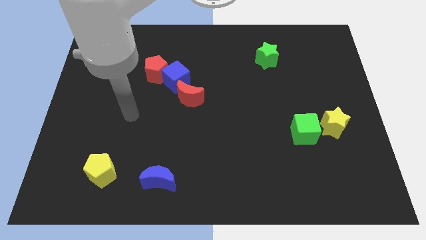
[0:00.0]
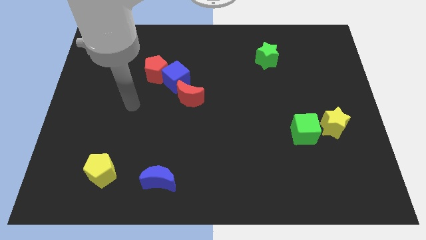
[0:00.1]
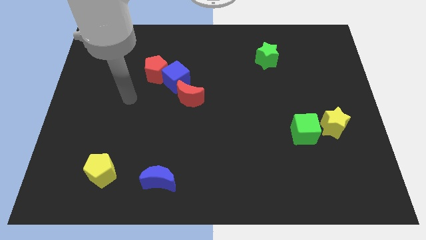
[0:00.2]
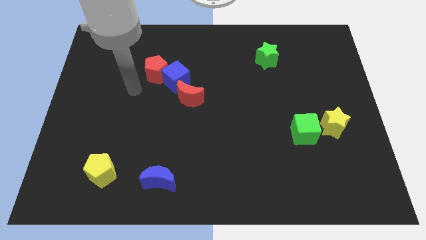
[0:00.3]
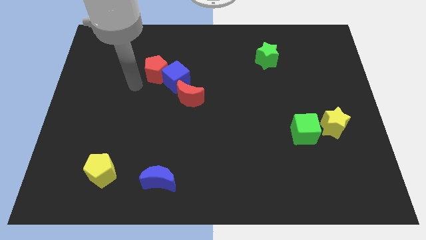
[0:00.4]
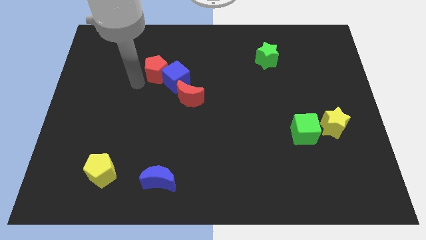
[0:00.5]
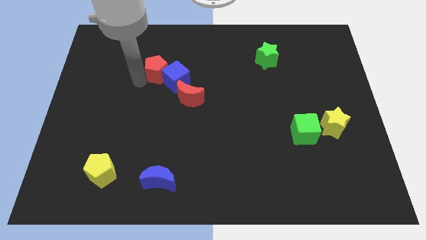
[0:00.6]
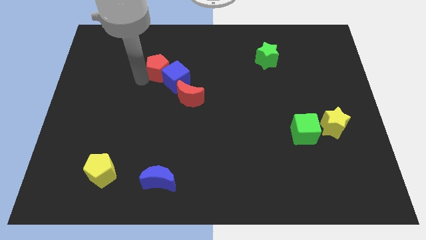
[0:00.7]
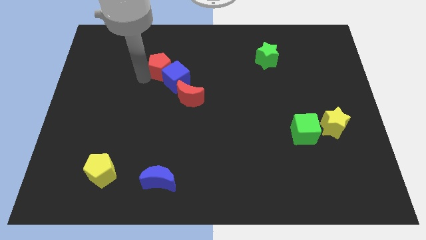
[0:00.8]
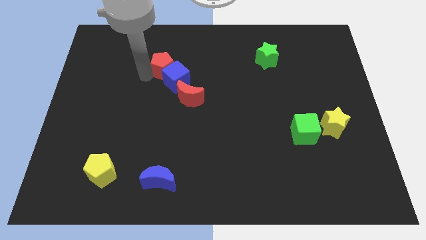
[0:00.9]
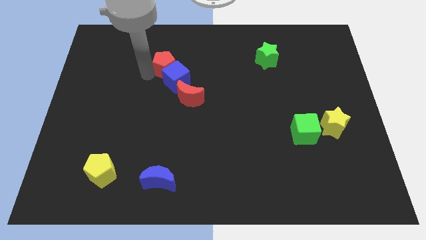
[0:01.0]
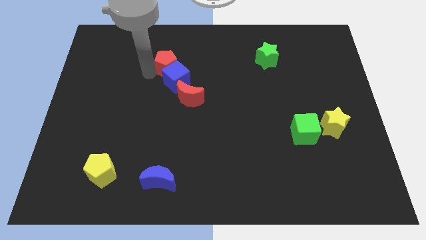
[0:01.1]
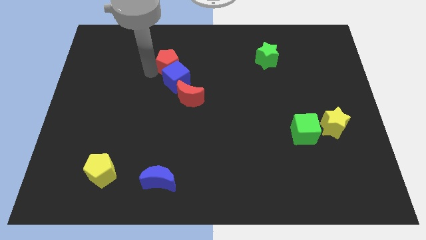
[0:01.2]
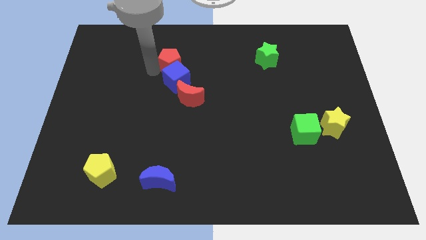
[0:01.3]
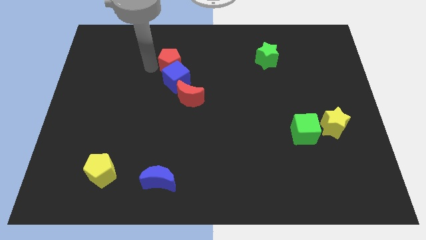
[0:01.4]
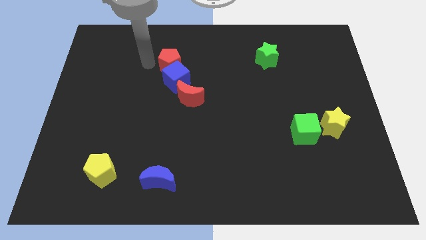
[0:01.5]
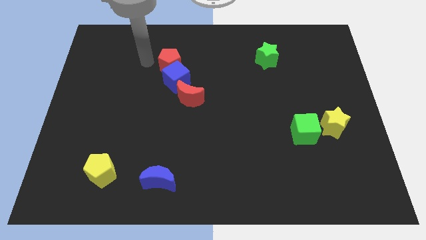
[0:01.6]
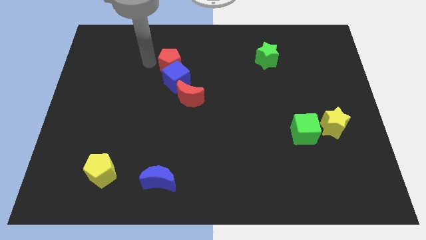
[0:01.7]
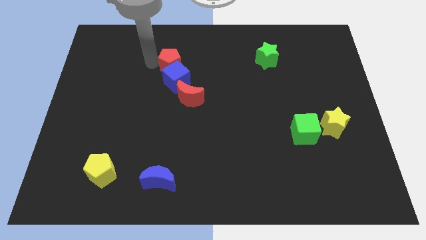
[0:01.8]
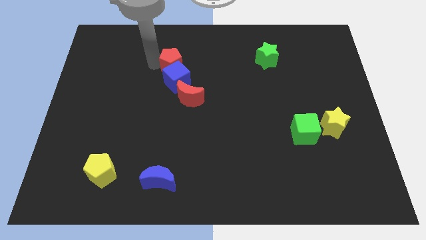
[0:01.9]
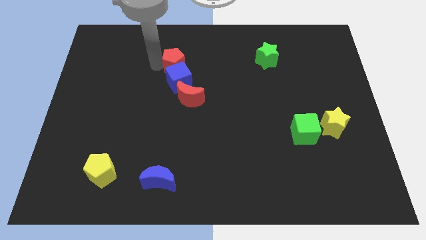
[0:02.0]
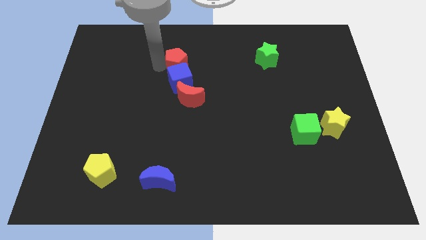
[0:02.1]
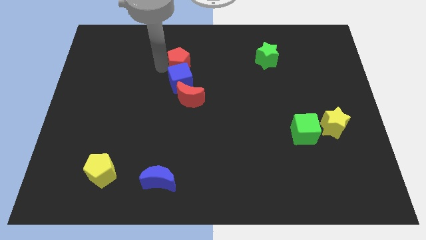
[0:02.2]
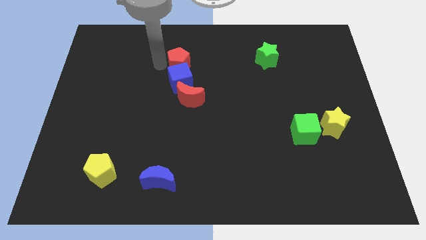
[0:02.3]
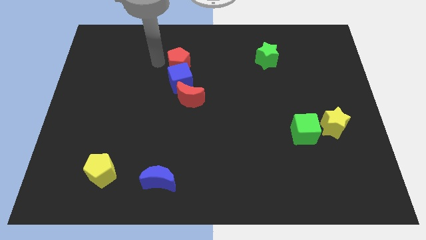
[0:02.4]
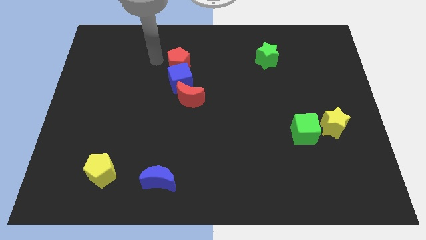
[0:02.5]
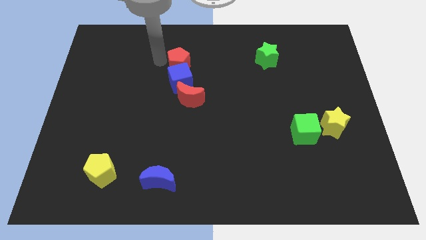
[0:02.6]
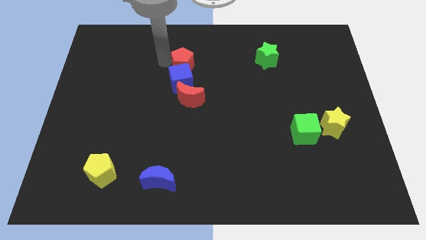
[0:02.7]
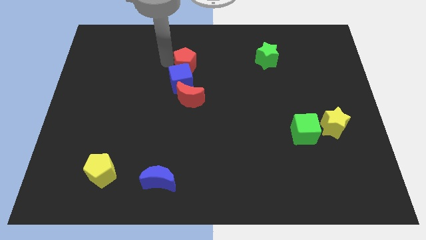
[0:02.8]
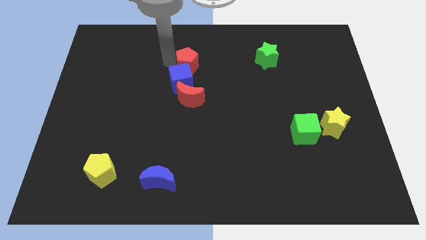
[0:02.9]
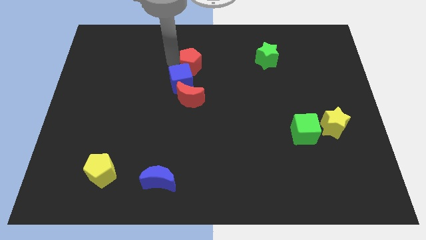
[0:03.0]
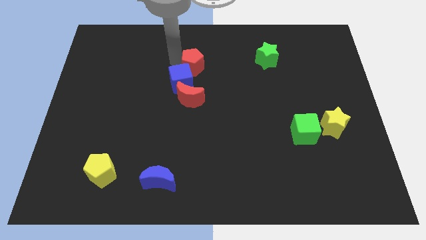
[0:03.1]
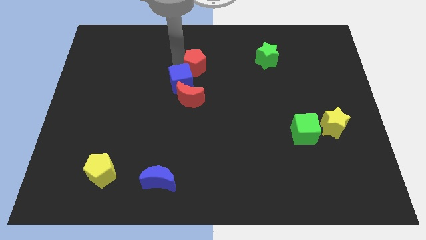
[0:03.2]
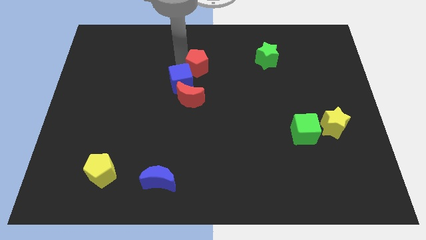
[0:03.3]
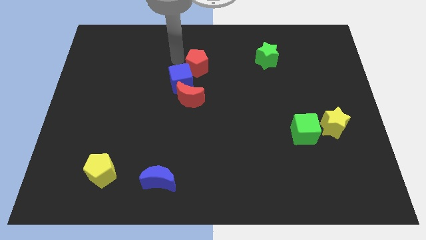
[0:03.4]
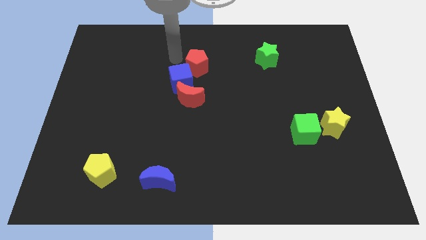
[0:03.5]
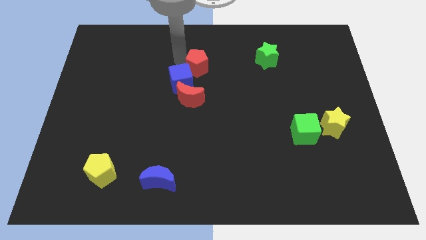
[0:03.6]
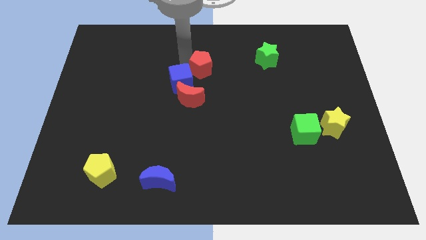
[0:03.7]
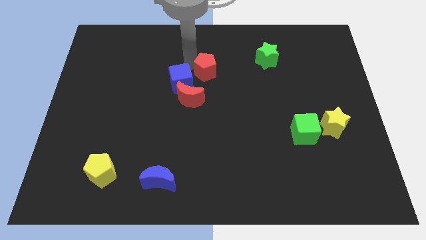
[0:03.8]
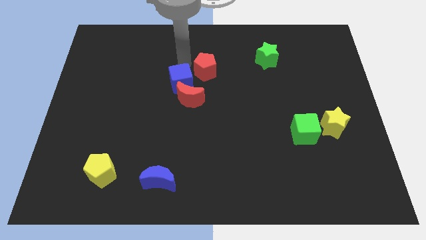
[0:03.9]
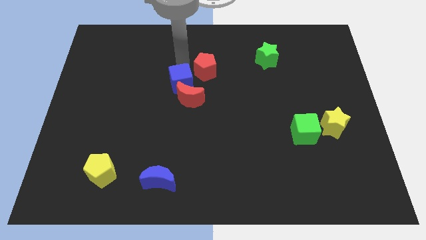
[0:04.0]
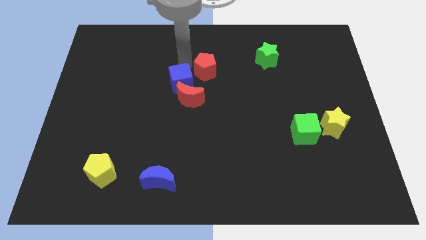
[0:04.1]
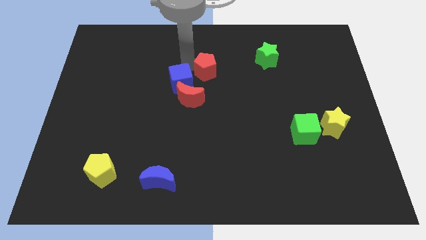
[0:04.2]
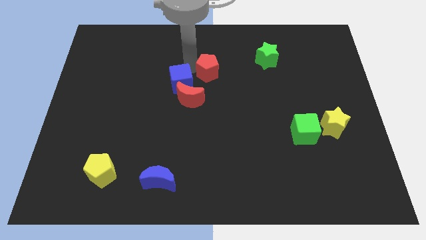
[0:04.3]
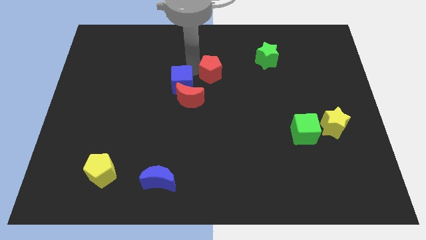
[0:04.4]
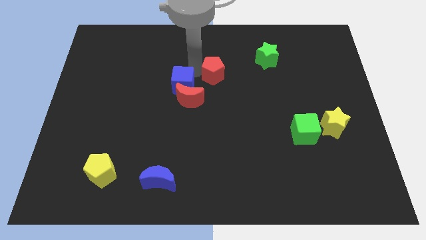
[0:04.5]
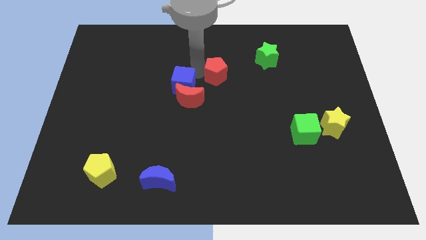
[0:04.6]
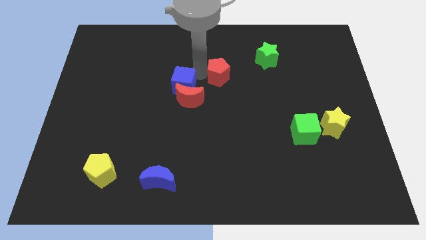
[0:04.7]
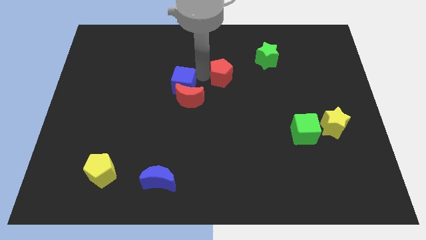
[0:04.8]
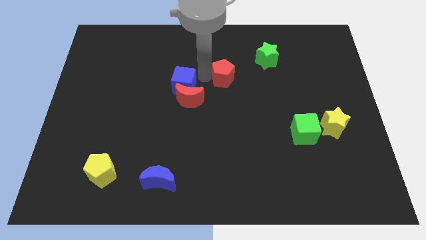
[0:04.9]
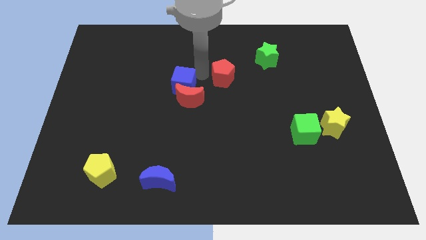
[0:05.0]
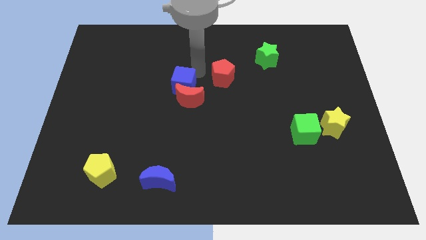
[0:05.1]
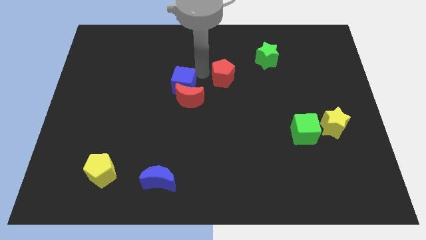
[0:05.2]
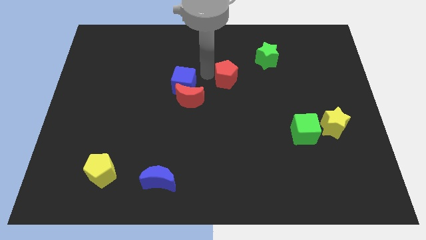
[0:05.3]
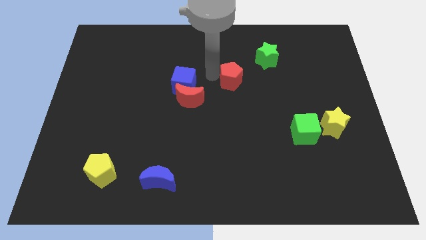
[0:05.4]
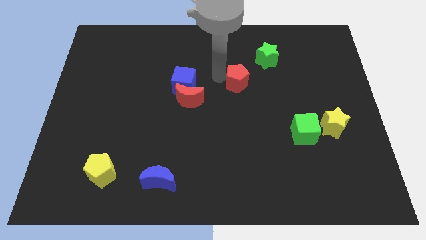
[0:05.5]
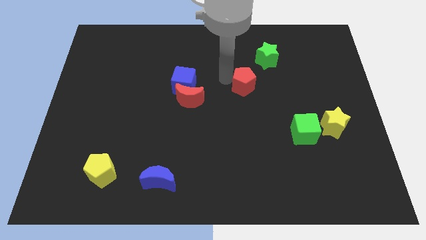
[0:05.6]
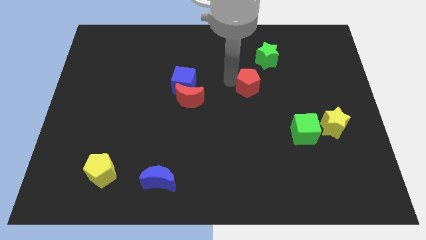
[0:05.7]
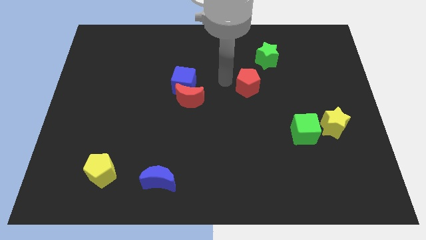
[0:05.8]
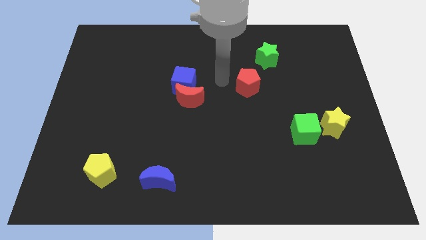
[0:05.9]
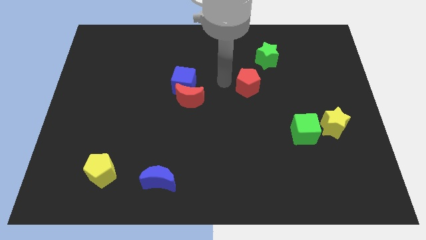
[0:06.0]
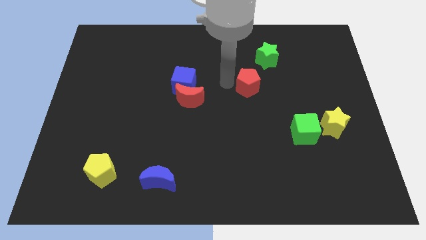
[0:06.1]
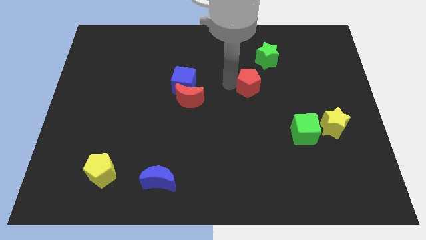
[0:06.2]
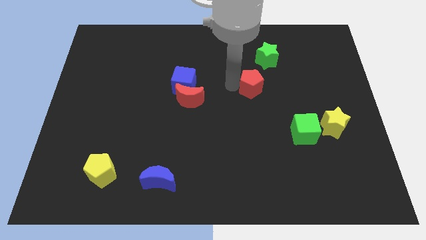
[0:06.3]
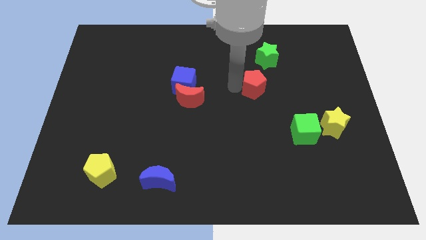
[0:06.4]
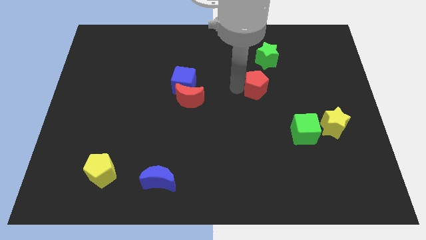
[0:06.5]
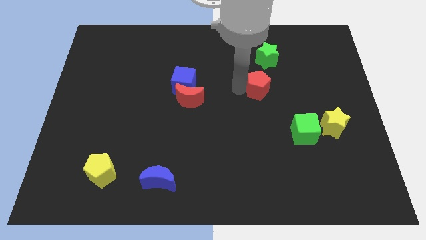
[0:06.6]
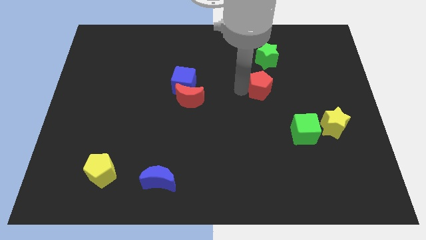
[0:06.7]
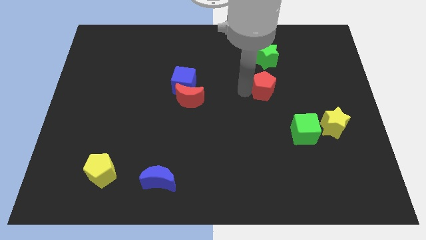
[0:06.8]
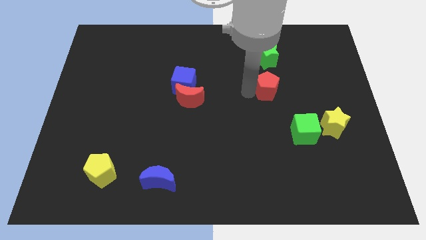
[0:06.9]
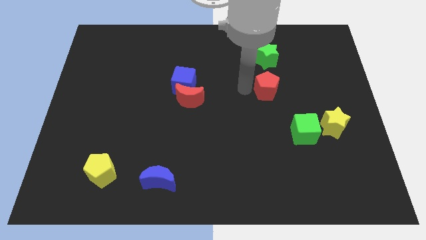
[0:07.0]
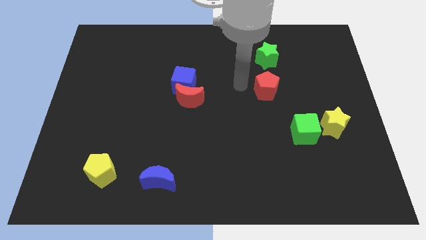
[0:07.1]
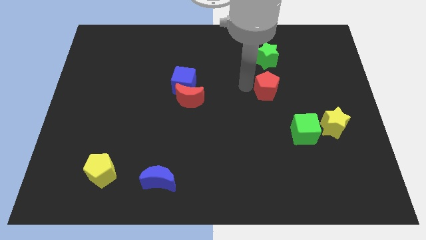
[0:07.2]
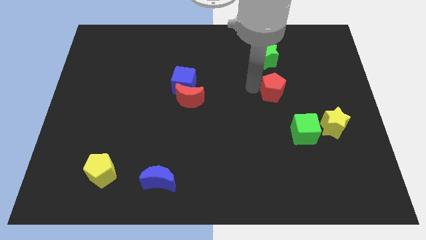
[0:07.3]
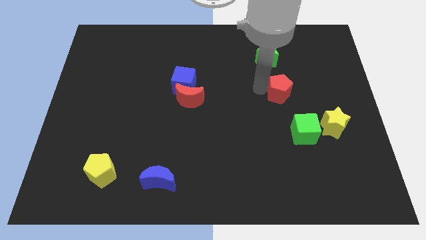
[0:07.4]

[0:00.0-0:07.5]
put the red pentagon to the top of the green cube
